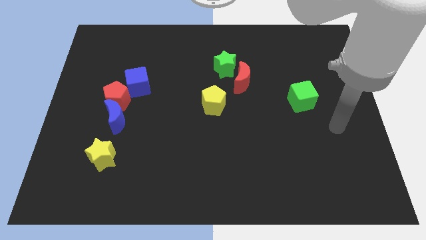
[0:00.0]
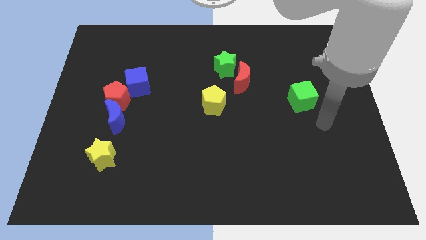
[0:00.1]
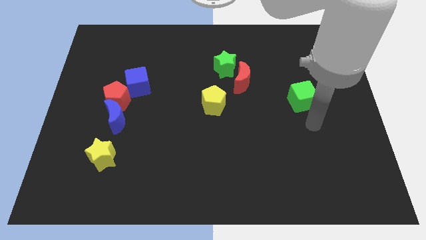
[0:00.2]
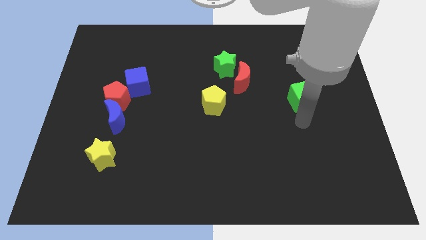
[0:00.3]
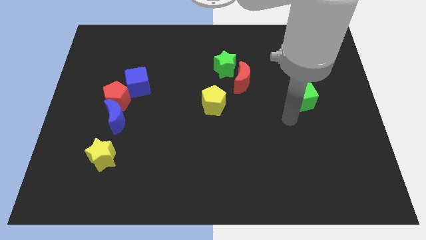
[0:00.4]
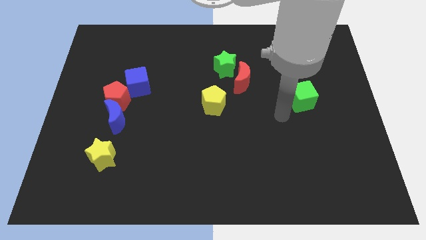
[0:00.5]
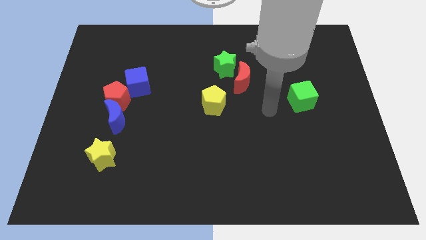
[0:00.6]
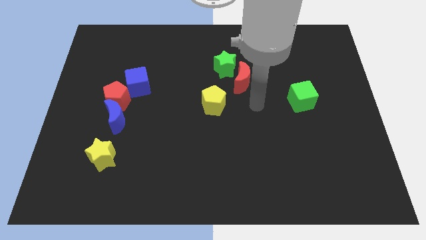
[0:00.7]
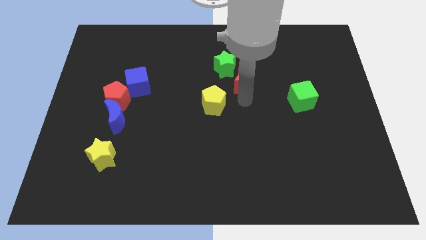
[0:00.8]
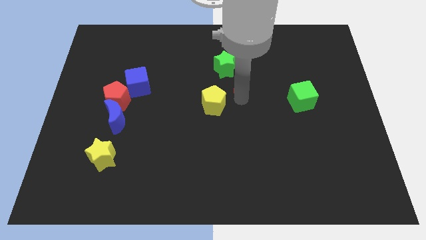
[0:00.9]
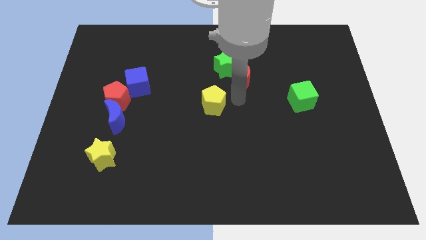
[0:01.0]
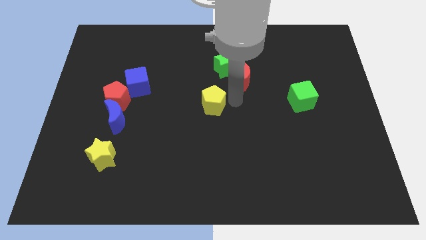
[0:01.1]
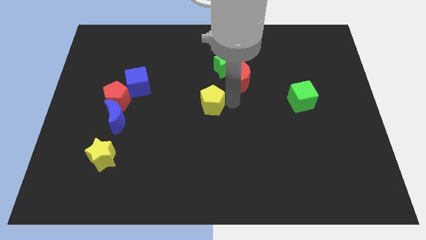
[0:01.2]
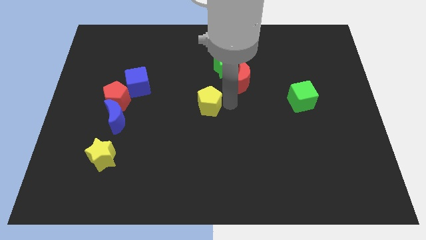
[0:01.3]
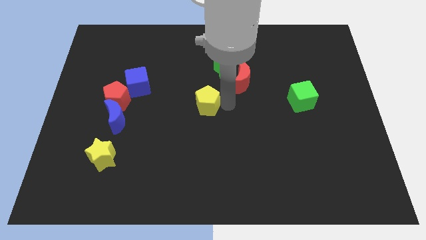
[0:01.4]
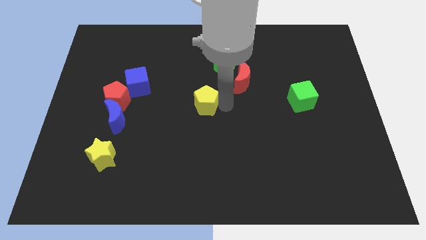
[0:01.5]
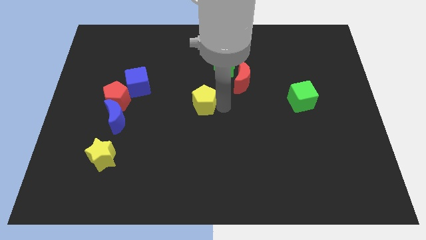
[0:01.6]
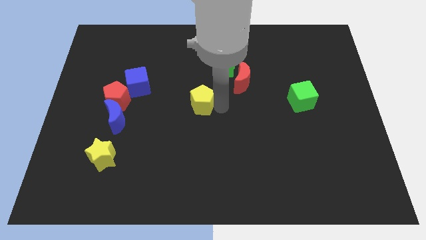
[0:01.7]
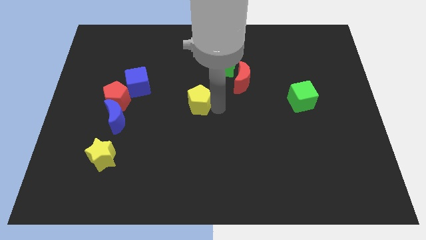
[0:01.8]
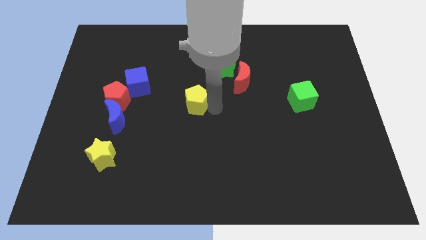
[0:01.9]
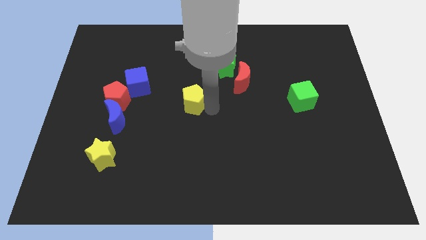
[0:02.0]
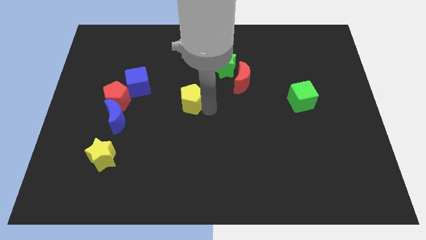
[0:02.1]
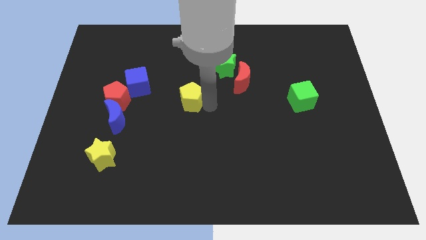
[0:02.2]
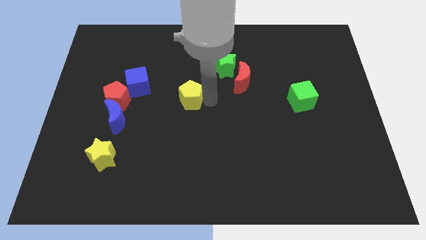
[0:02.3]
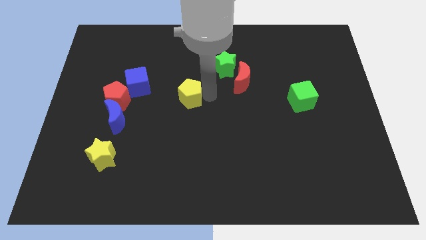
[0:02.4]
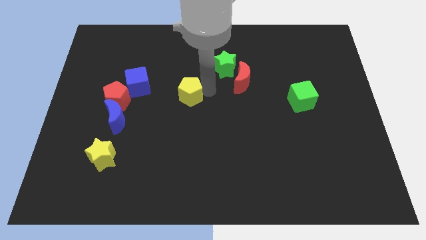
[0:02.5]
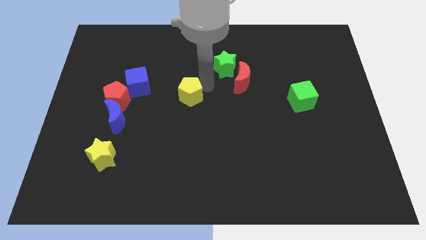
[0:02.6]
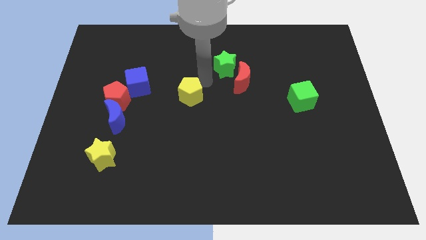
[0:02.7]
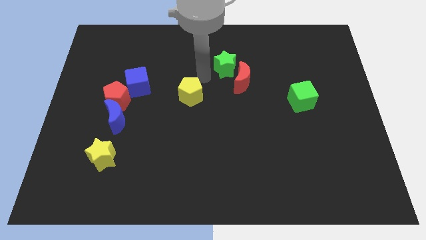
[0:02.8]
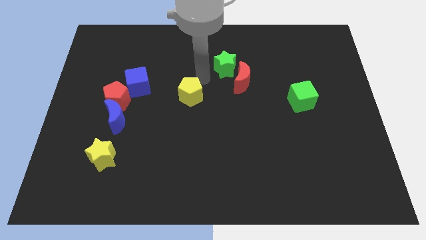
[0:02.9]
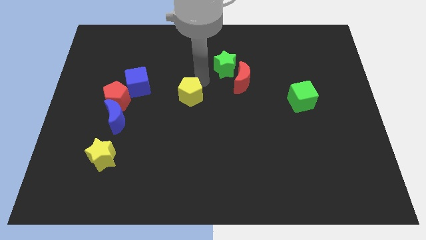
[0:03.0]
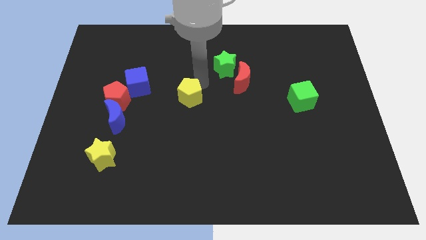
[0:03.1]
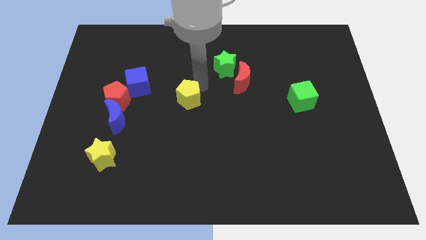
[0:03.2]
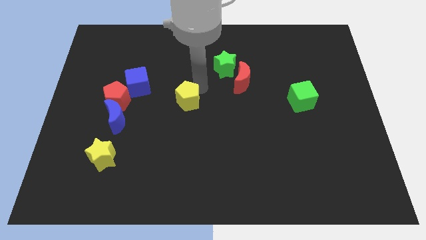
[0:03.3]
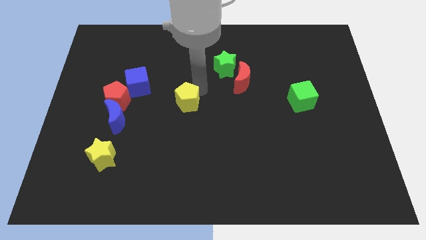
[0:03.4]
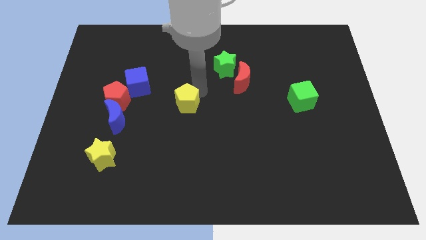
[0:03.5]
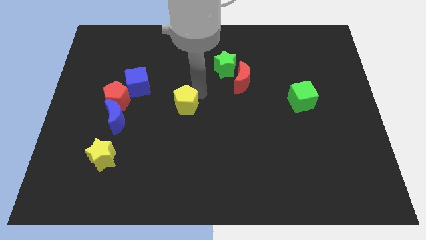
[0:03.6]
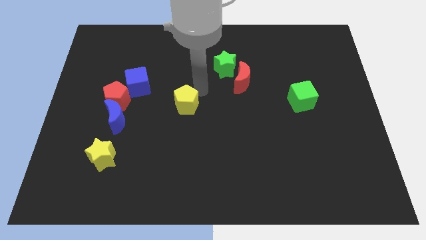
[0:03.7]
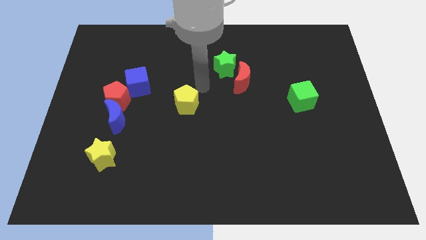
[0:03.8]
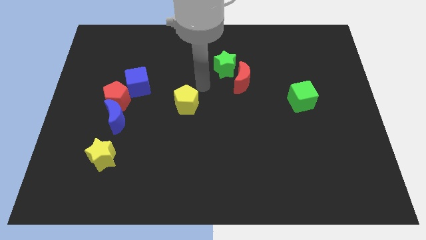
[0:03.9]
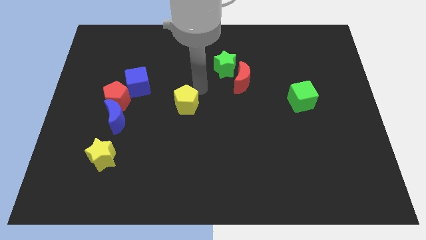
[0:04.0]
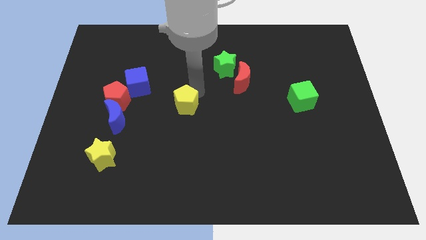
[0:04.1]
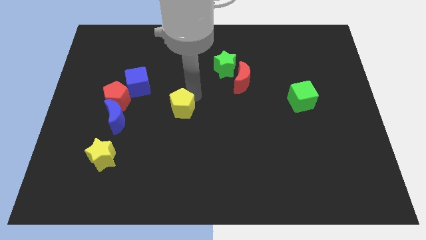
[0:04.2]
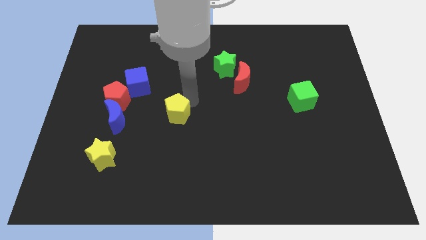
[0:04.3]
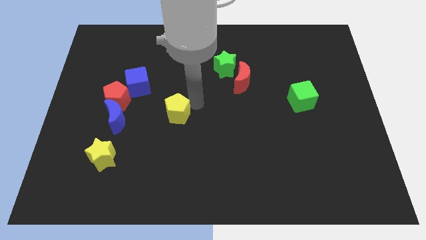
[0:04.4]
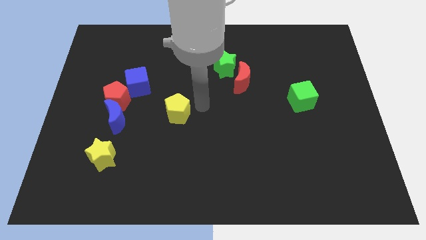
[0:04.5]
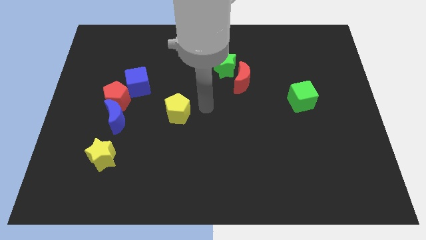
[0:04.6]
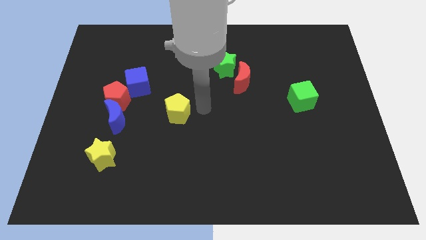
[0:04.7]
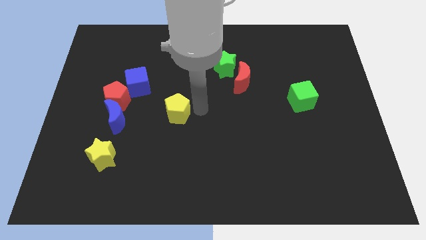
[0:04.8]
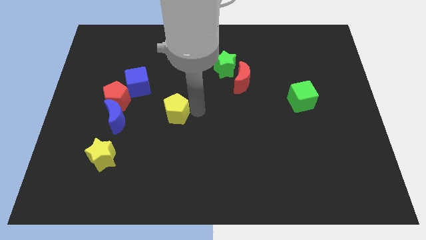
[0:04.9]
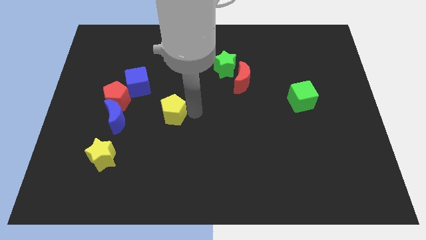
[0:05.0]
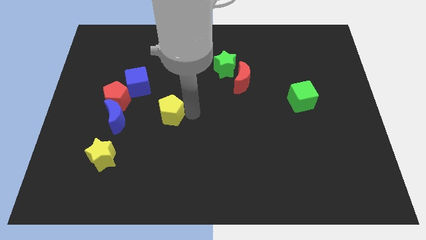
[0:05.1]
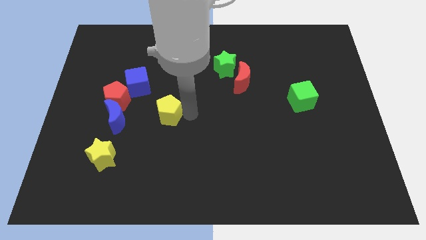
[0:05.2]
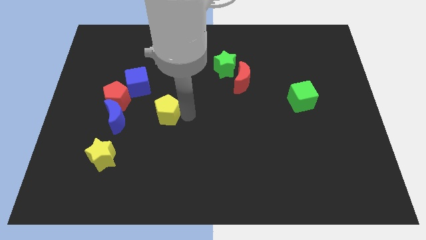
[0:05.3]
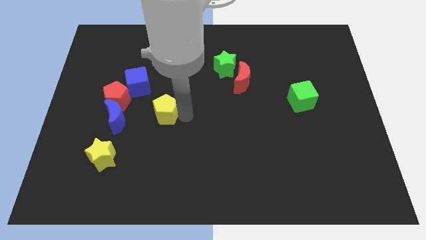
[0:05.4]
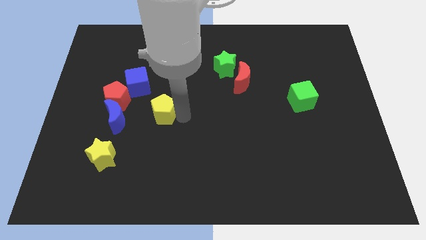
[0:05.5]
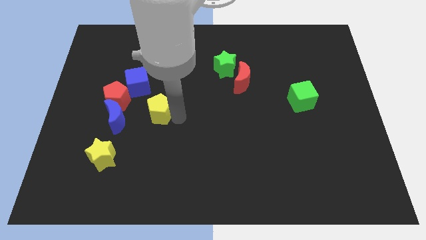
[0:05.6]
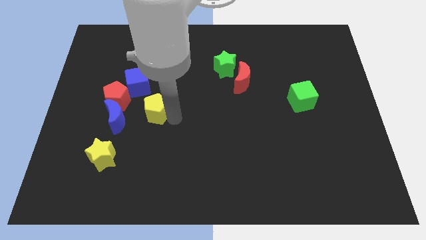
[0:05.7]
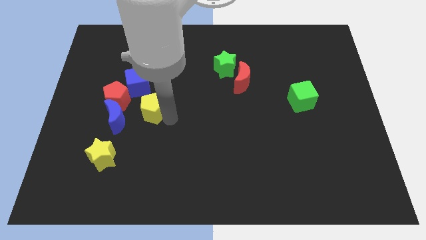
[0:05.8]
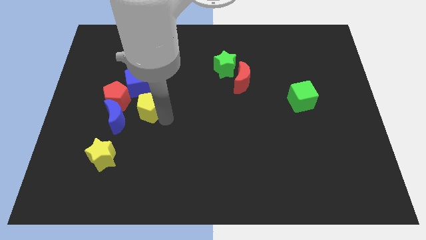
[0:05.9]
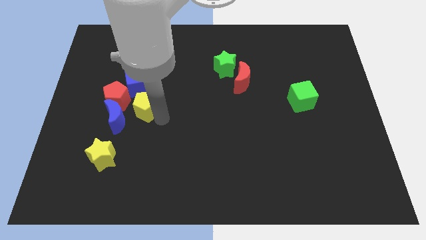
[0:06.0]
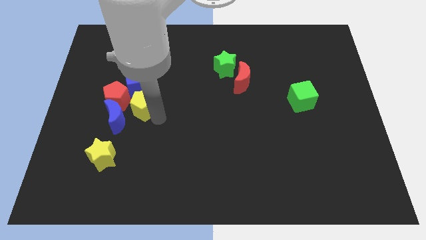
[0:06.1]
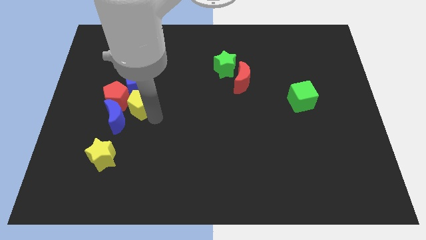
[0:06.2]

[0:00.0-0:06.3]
put the yellow pentagon next to the blue moon

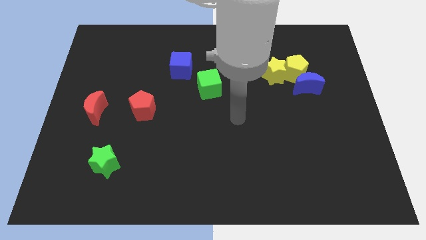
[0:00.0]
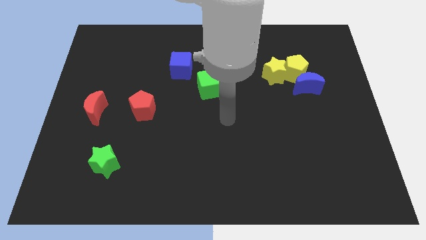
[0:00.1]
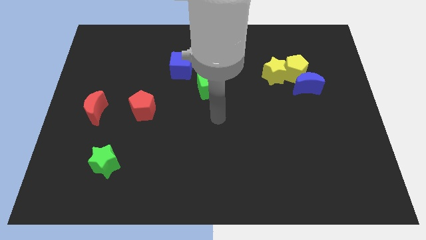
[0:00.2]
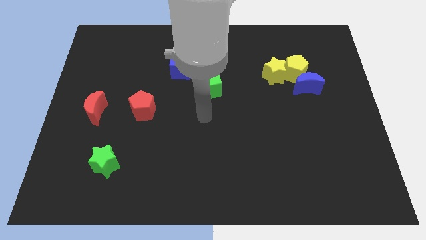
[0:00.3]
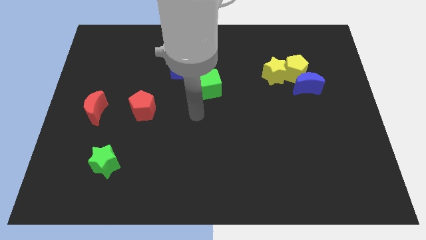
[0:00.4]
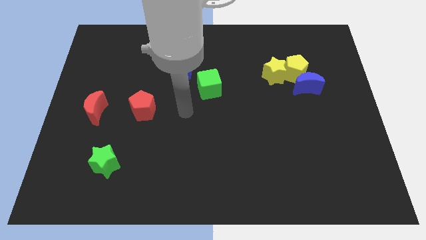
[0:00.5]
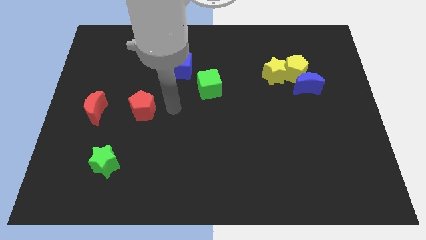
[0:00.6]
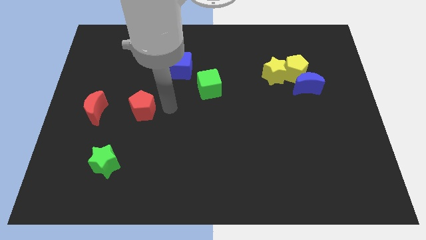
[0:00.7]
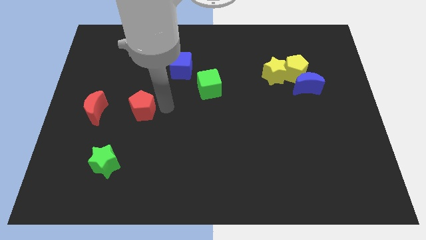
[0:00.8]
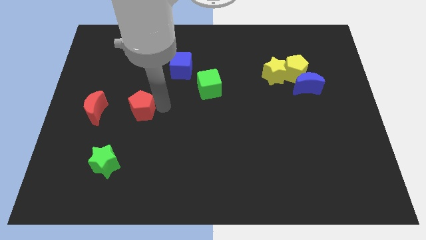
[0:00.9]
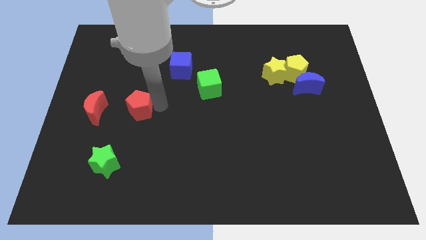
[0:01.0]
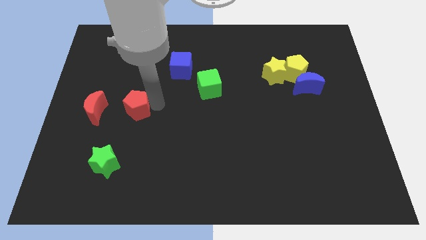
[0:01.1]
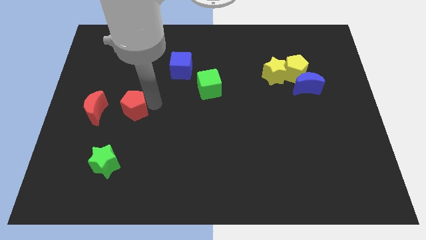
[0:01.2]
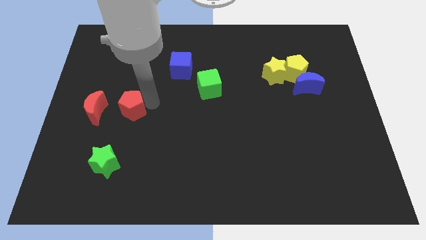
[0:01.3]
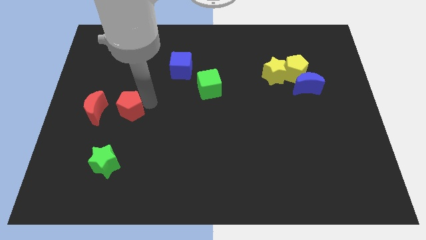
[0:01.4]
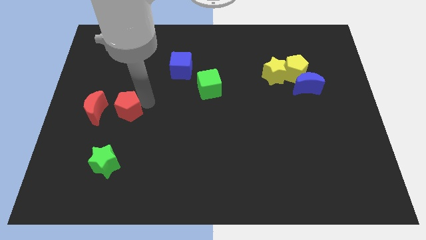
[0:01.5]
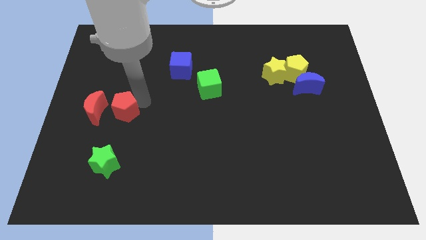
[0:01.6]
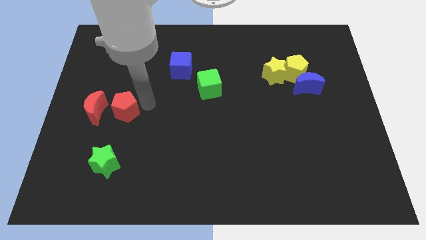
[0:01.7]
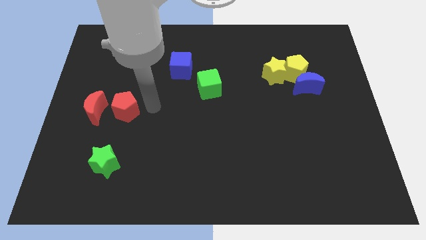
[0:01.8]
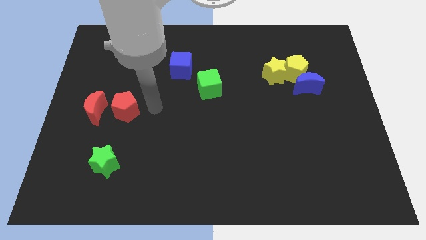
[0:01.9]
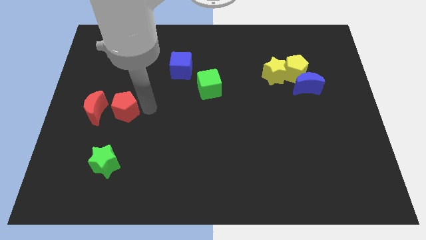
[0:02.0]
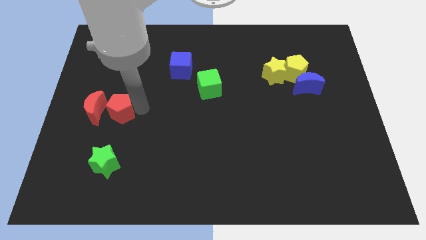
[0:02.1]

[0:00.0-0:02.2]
push the red pentagon to the red moon
